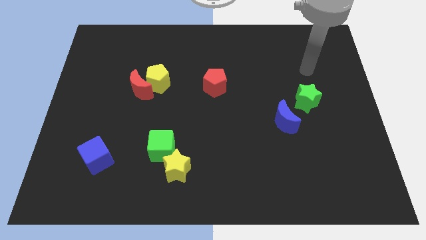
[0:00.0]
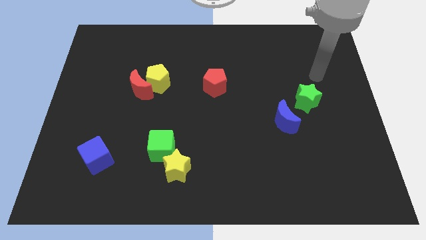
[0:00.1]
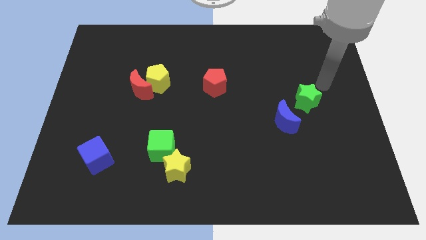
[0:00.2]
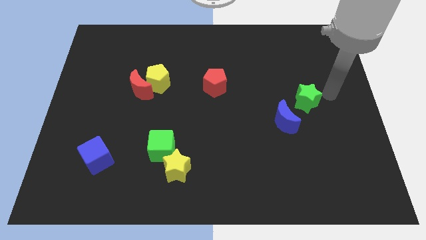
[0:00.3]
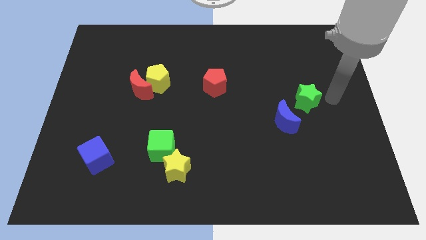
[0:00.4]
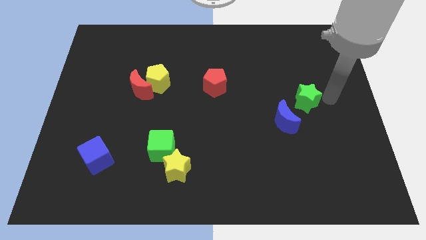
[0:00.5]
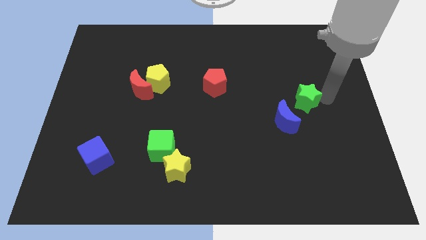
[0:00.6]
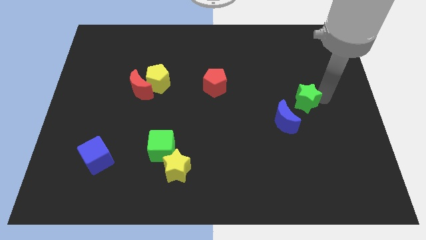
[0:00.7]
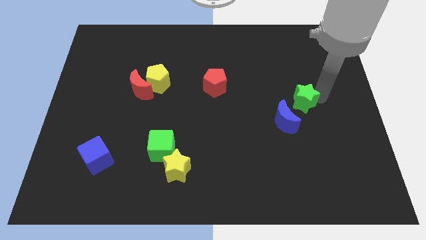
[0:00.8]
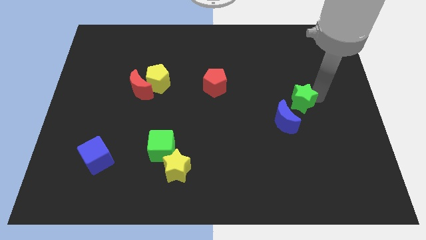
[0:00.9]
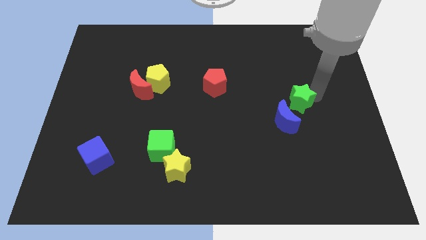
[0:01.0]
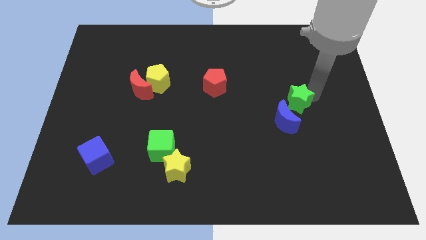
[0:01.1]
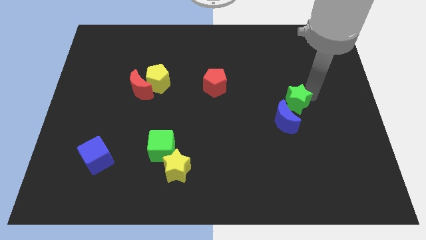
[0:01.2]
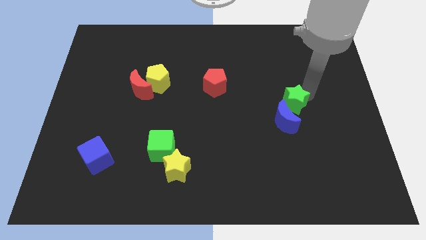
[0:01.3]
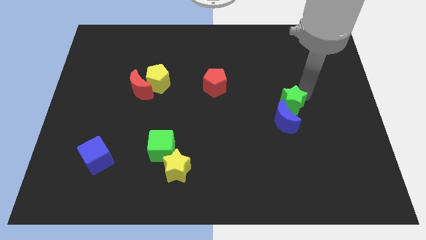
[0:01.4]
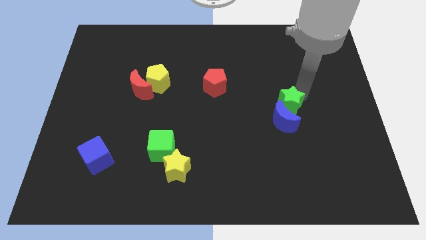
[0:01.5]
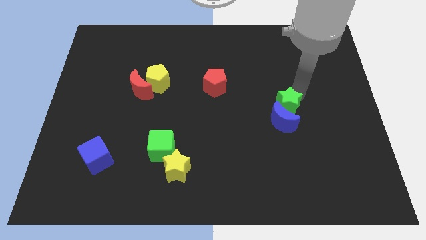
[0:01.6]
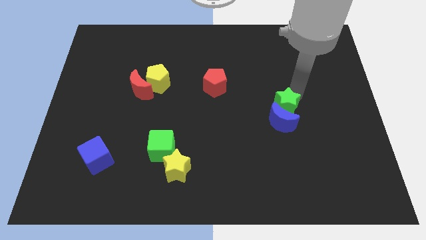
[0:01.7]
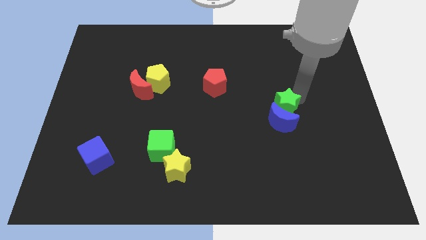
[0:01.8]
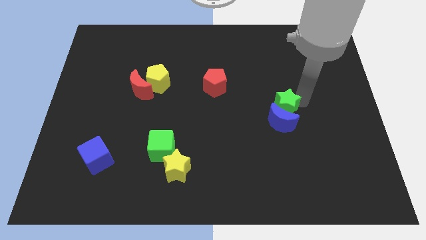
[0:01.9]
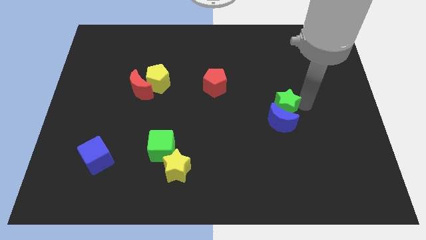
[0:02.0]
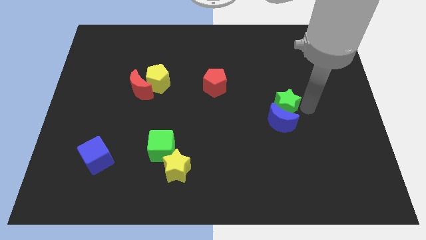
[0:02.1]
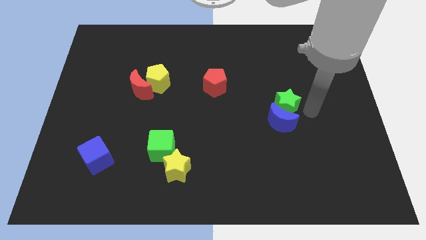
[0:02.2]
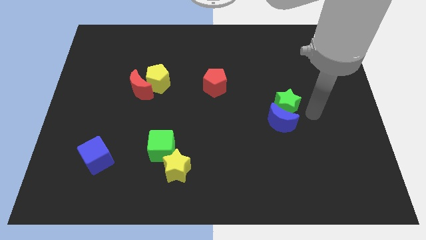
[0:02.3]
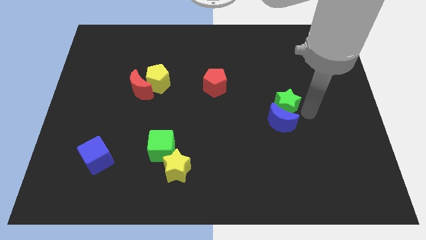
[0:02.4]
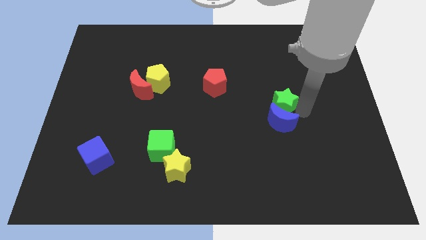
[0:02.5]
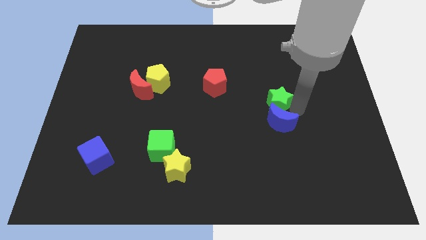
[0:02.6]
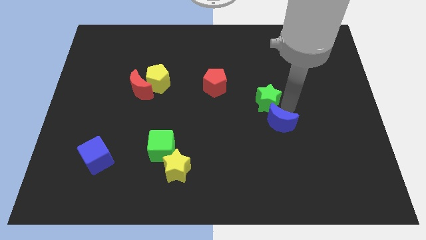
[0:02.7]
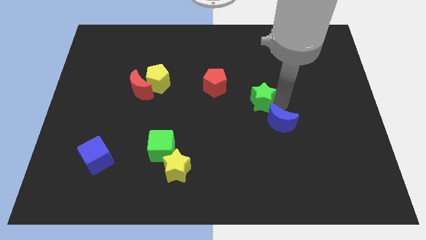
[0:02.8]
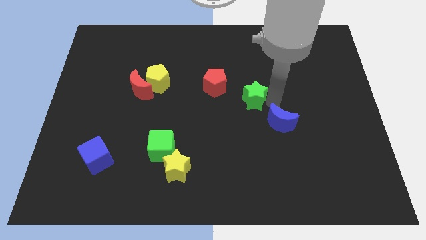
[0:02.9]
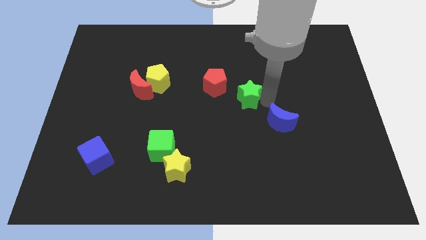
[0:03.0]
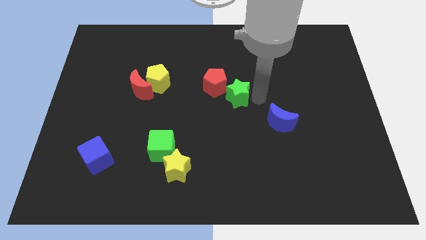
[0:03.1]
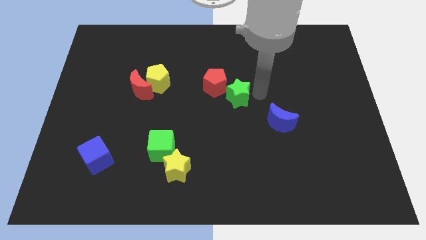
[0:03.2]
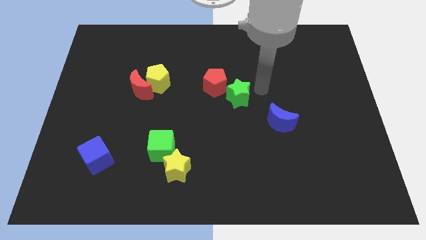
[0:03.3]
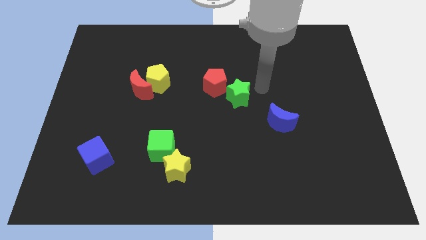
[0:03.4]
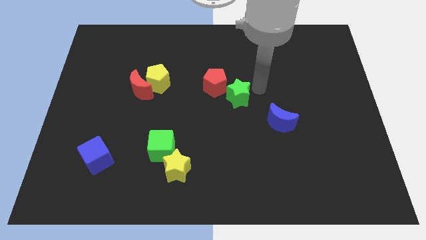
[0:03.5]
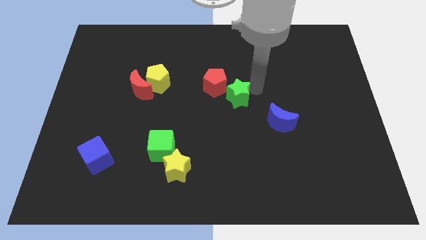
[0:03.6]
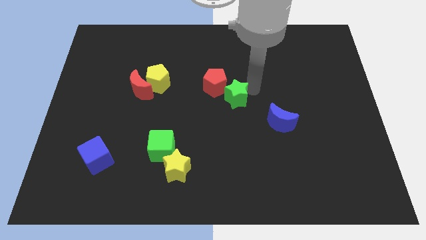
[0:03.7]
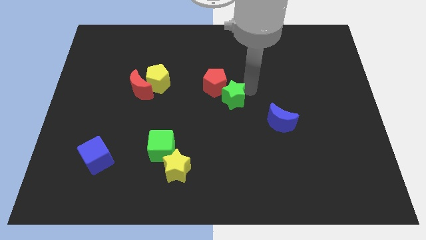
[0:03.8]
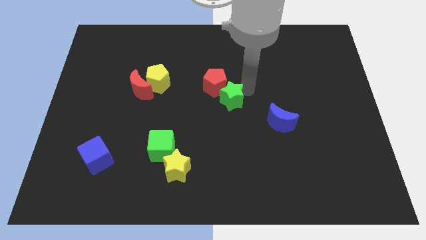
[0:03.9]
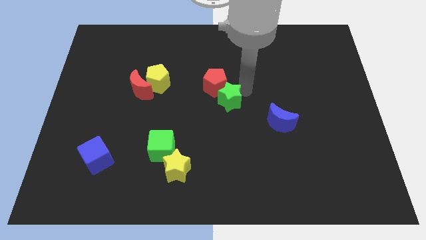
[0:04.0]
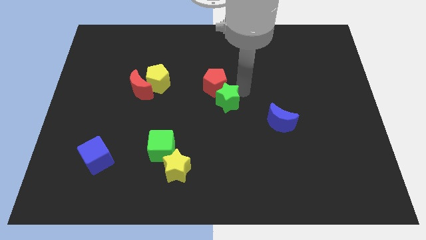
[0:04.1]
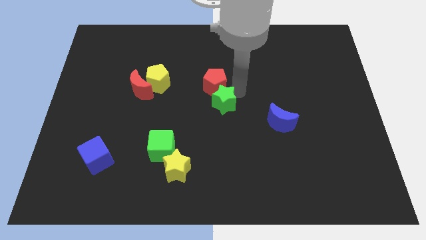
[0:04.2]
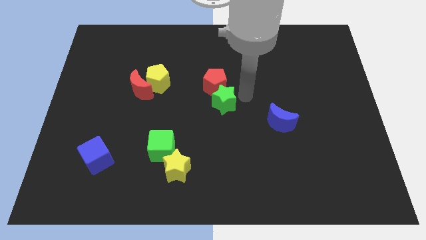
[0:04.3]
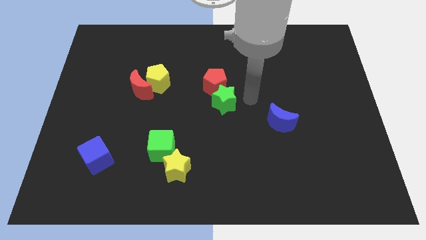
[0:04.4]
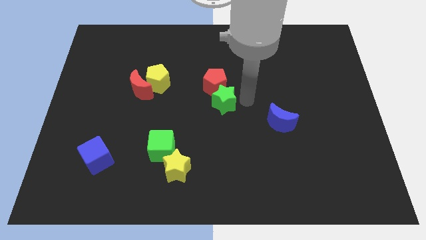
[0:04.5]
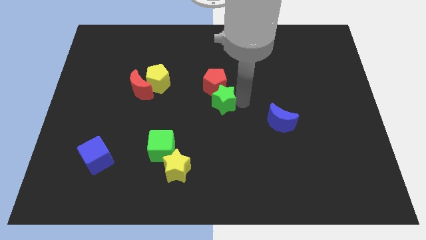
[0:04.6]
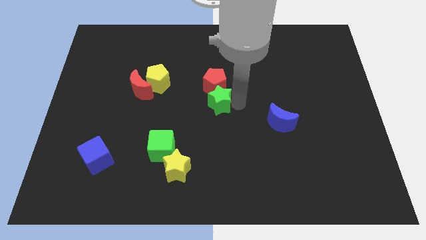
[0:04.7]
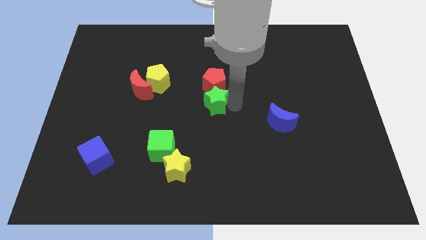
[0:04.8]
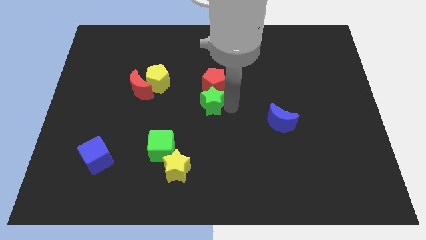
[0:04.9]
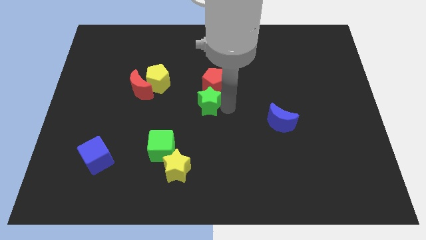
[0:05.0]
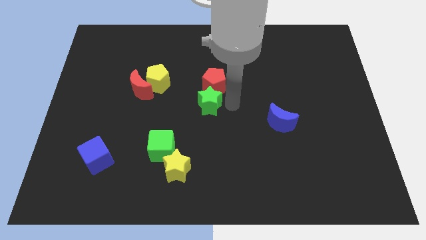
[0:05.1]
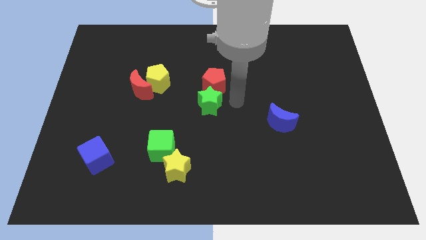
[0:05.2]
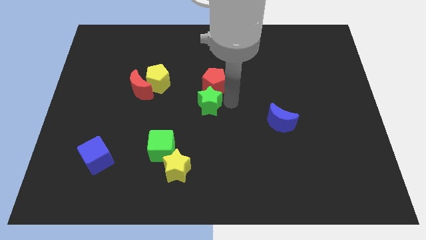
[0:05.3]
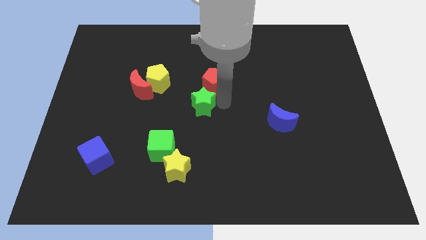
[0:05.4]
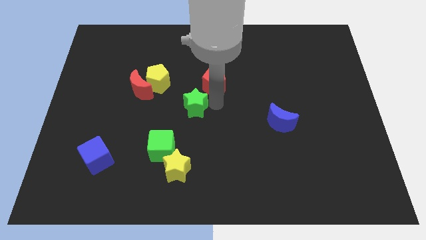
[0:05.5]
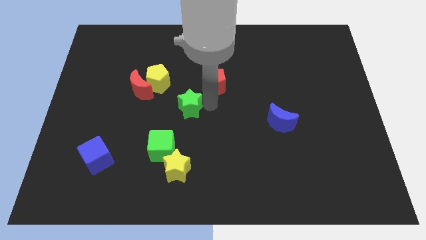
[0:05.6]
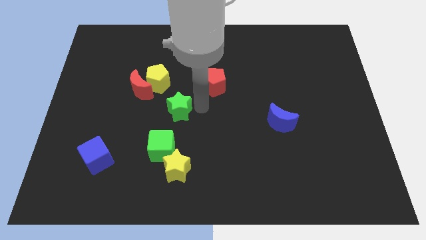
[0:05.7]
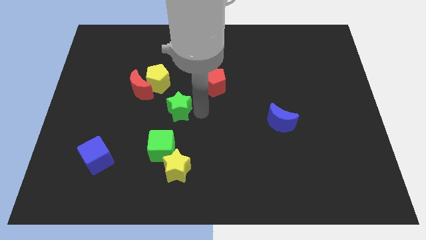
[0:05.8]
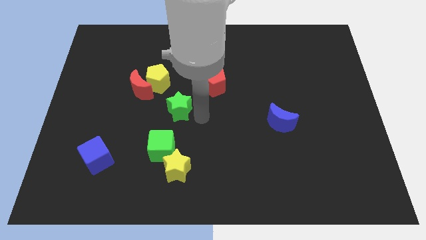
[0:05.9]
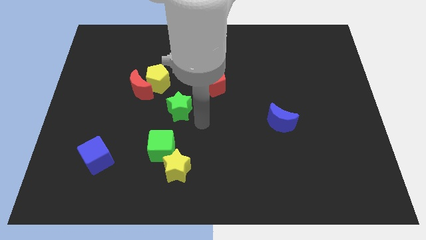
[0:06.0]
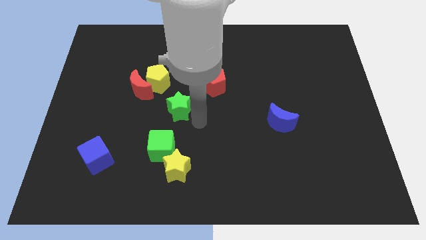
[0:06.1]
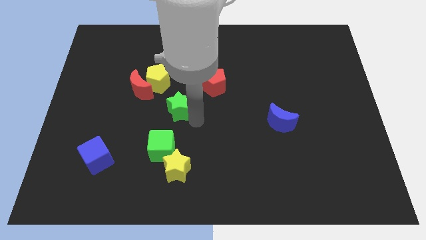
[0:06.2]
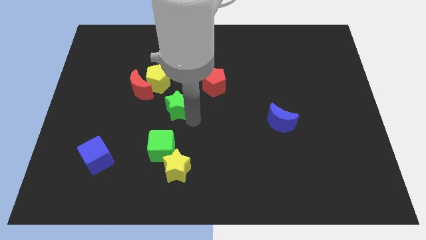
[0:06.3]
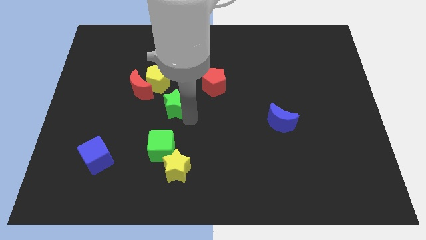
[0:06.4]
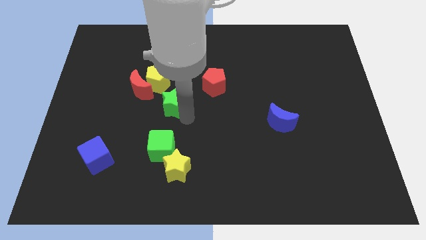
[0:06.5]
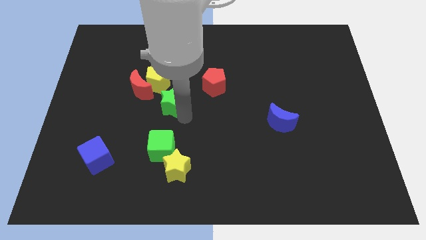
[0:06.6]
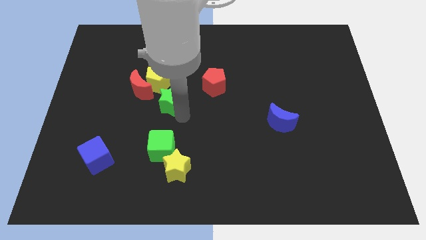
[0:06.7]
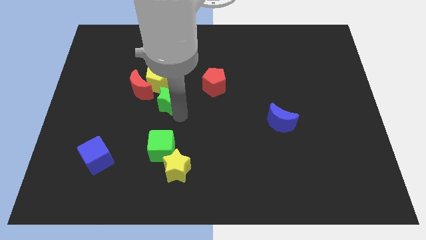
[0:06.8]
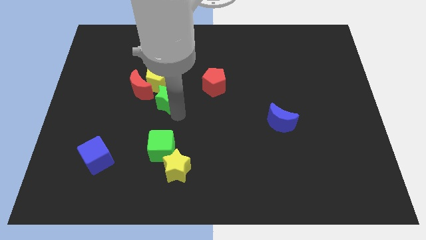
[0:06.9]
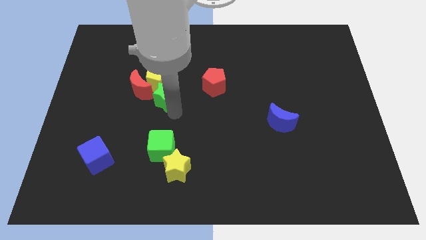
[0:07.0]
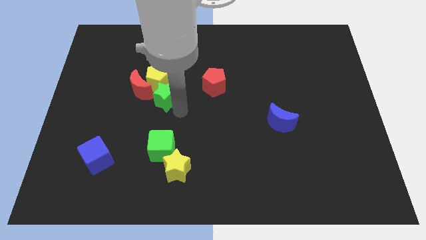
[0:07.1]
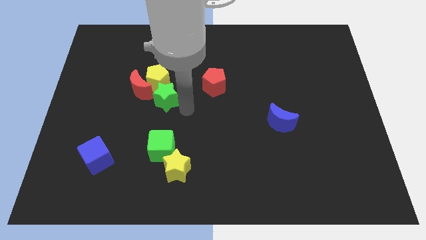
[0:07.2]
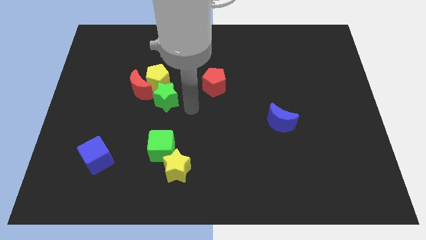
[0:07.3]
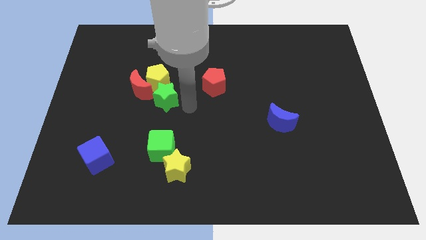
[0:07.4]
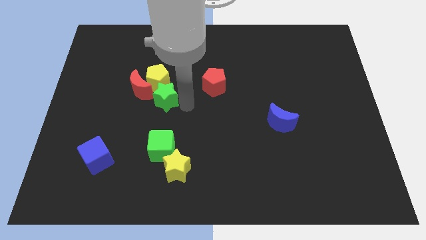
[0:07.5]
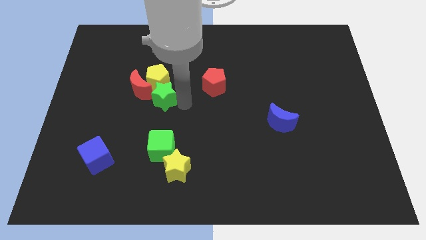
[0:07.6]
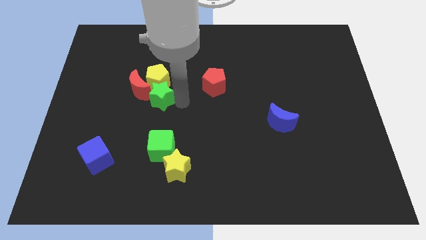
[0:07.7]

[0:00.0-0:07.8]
push the green star next to the red moon
